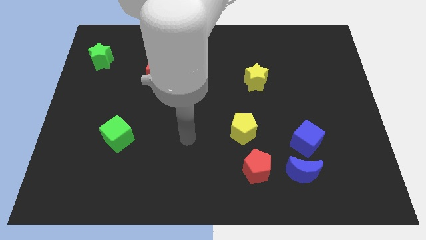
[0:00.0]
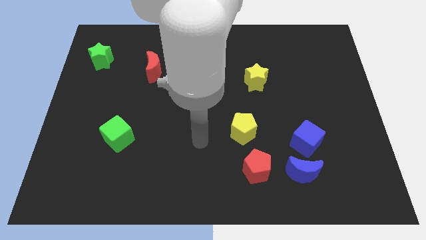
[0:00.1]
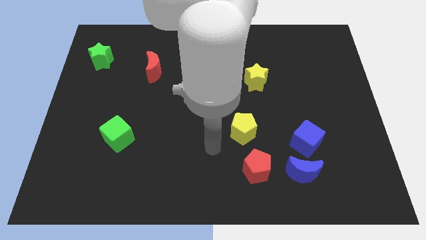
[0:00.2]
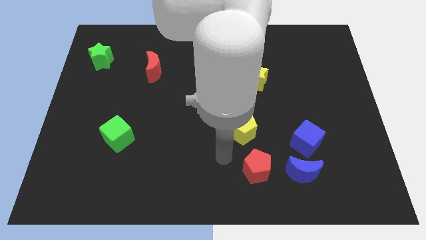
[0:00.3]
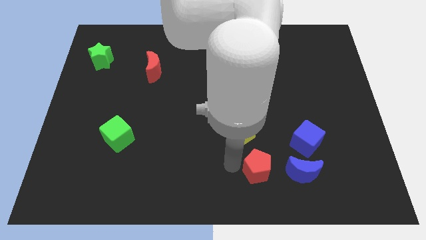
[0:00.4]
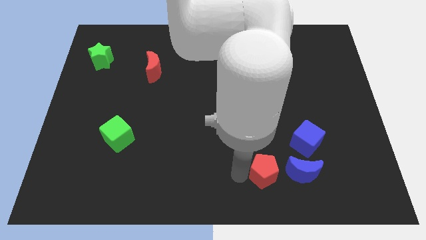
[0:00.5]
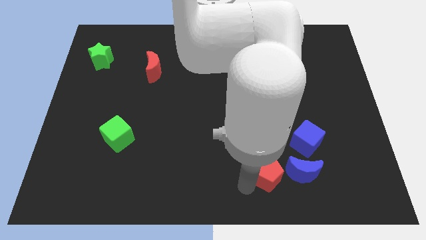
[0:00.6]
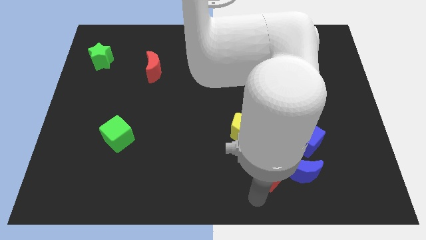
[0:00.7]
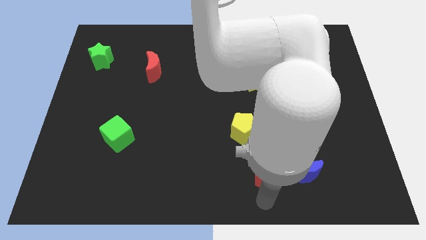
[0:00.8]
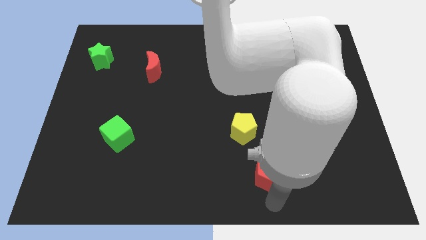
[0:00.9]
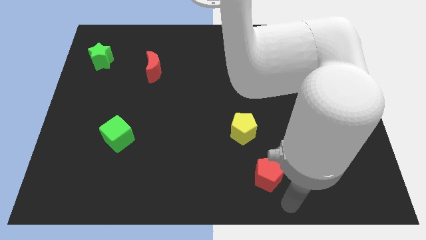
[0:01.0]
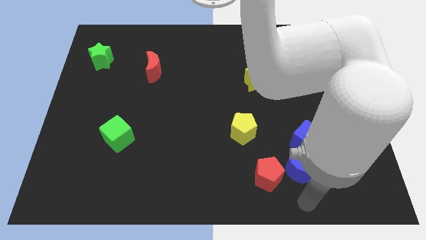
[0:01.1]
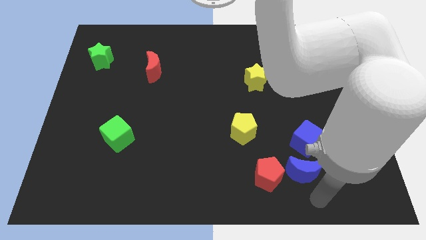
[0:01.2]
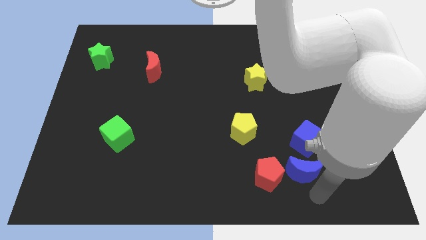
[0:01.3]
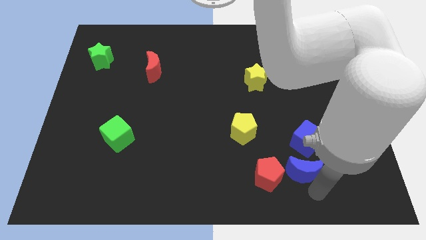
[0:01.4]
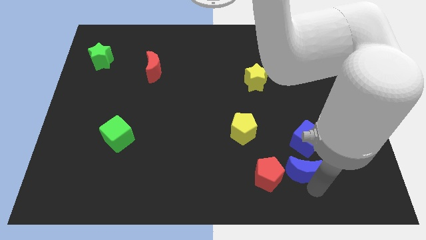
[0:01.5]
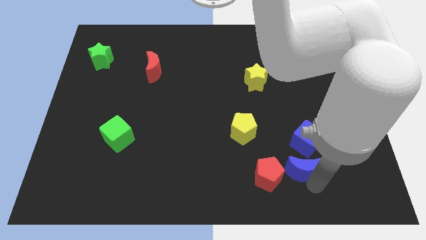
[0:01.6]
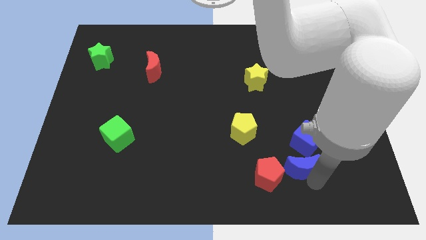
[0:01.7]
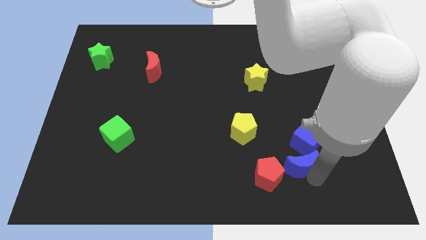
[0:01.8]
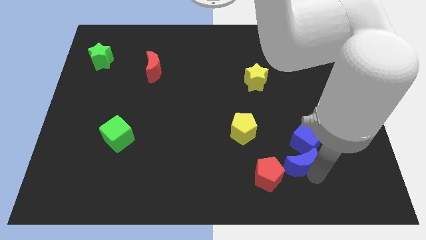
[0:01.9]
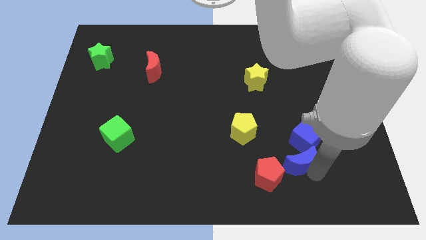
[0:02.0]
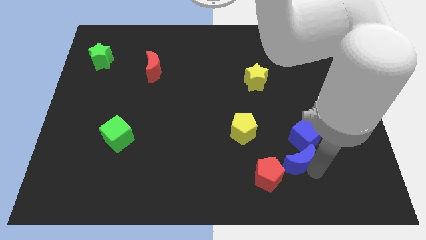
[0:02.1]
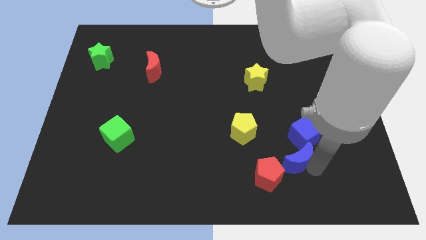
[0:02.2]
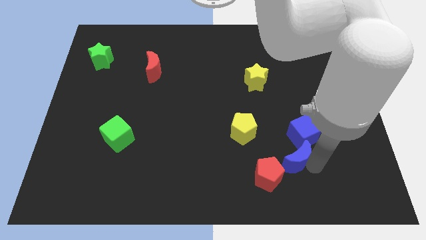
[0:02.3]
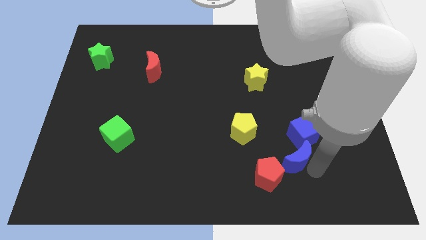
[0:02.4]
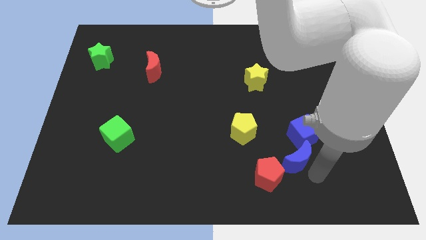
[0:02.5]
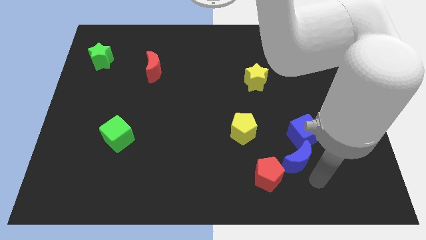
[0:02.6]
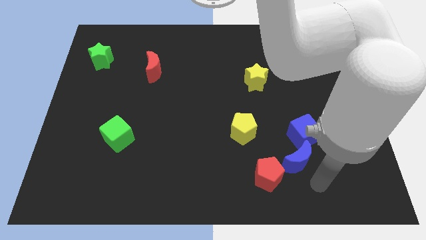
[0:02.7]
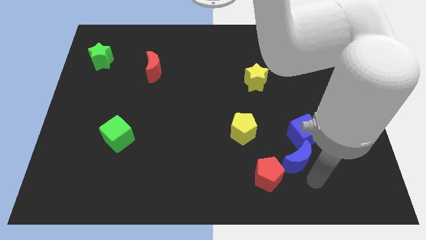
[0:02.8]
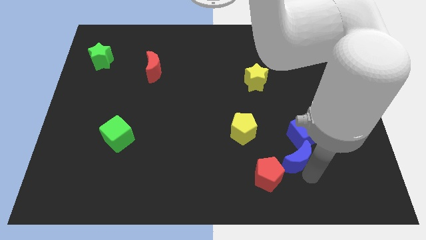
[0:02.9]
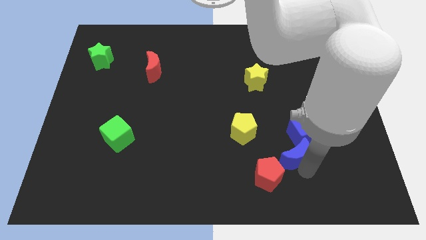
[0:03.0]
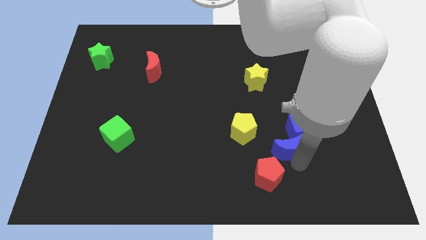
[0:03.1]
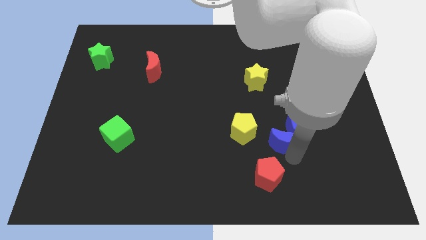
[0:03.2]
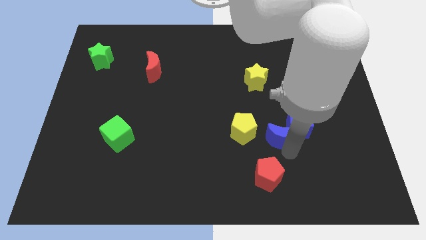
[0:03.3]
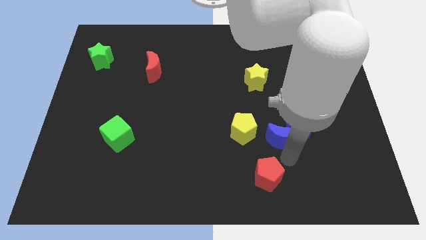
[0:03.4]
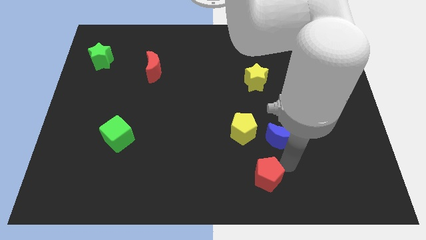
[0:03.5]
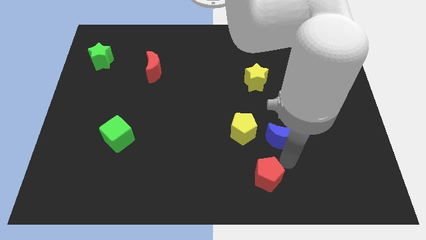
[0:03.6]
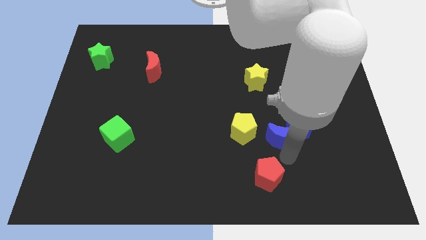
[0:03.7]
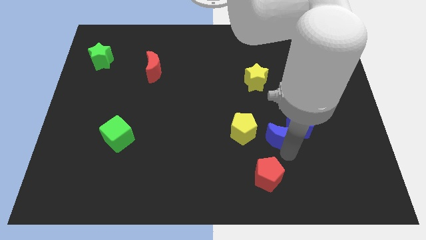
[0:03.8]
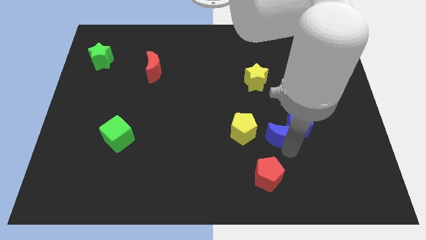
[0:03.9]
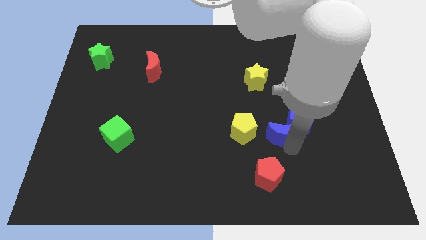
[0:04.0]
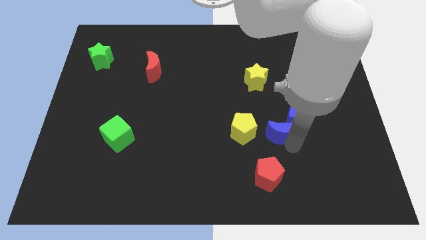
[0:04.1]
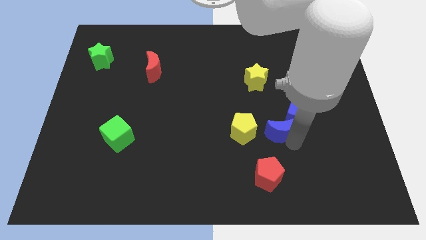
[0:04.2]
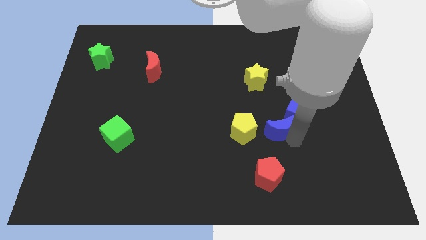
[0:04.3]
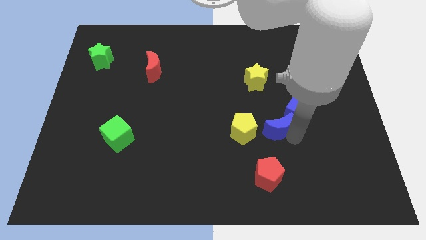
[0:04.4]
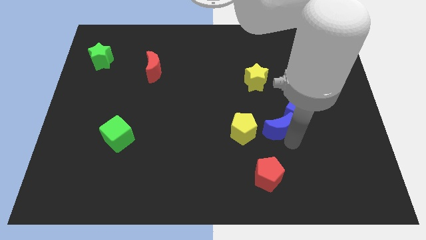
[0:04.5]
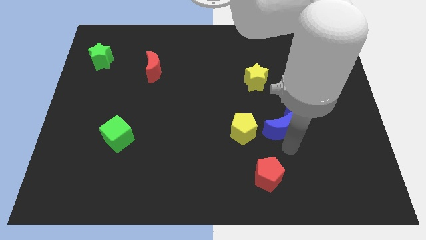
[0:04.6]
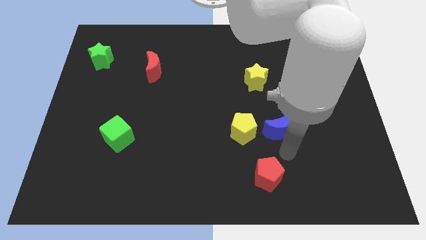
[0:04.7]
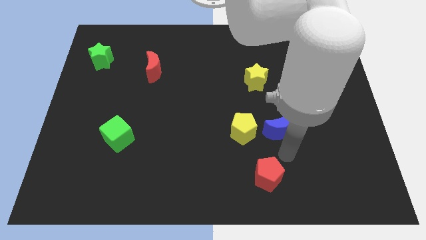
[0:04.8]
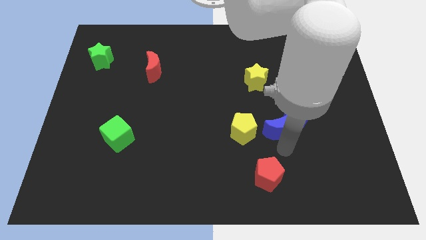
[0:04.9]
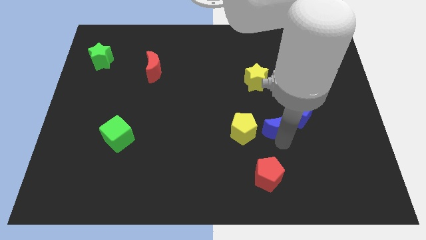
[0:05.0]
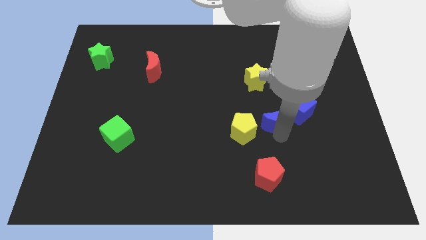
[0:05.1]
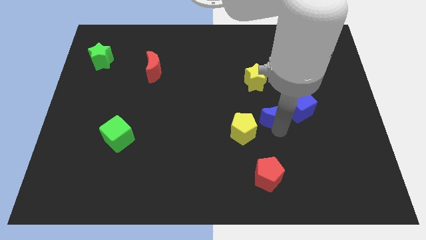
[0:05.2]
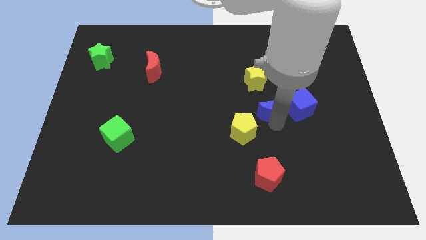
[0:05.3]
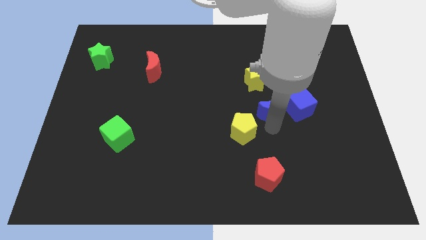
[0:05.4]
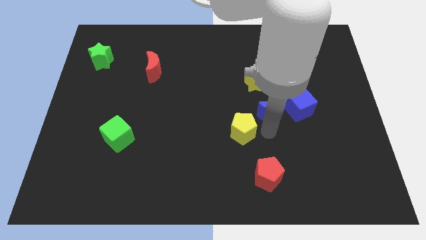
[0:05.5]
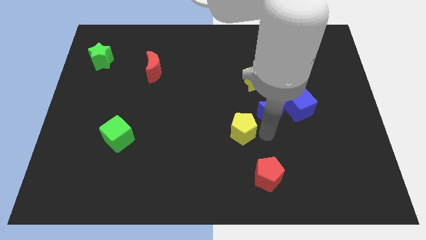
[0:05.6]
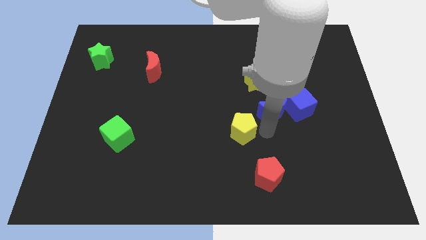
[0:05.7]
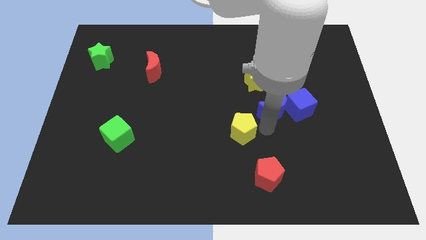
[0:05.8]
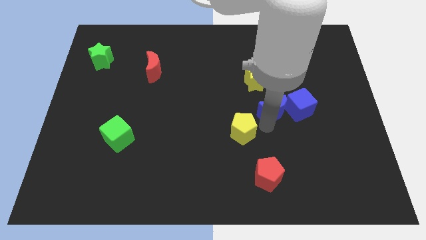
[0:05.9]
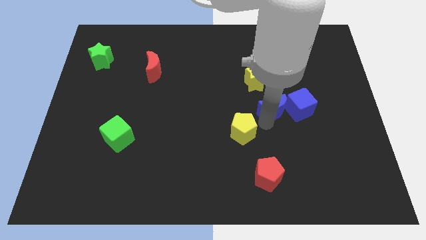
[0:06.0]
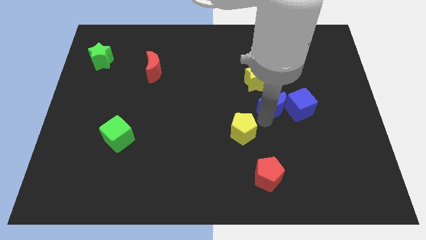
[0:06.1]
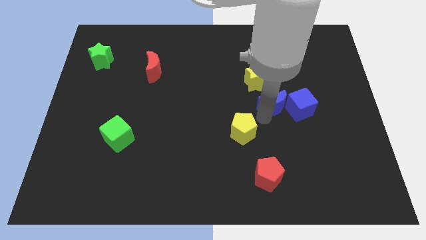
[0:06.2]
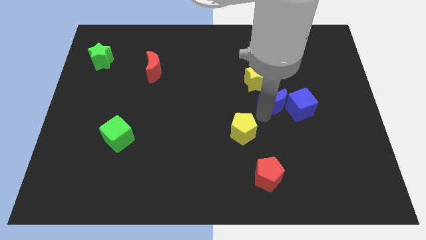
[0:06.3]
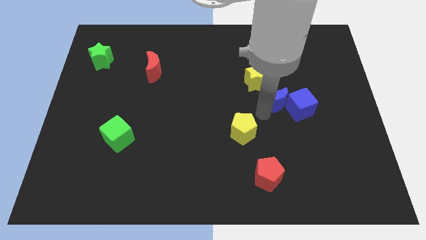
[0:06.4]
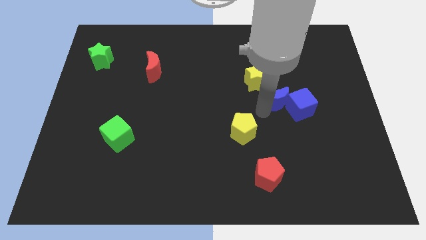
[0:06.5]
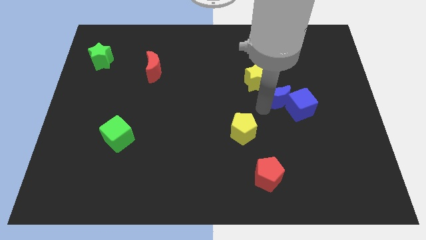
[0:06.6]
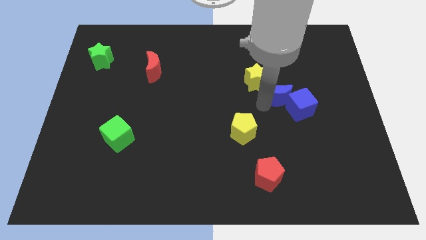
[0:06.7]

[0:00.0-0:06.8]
slide the blue moon up

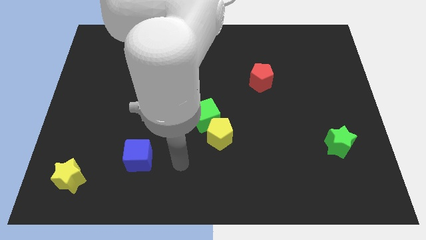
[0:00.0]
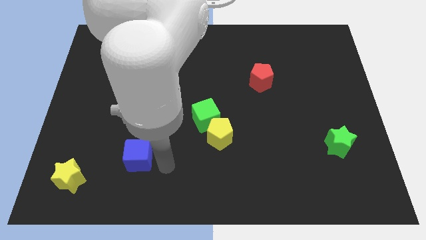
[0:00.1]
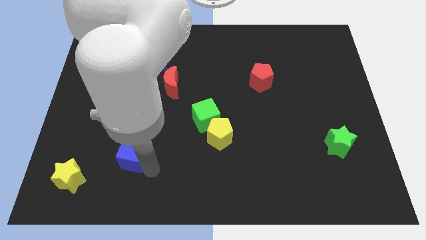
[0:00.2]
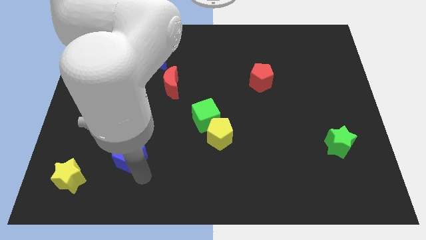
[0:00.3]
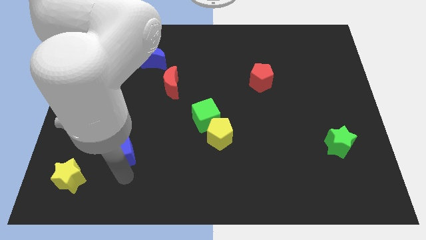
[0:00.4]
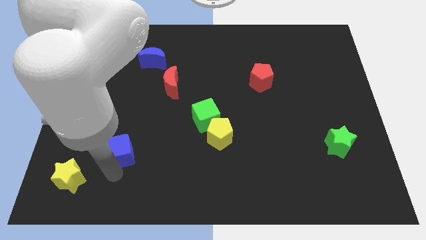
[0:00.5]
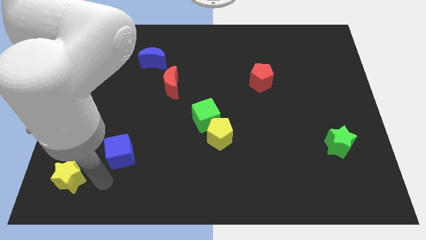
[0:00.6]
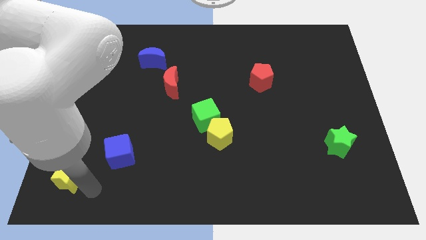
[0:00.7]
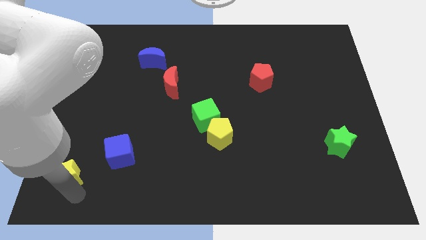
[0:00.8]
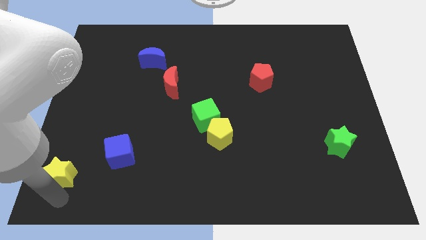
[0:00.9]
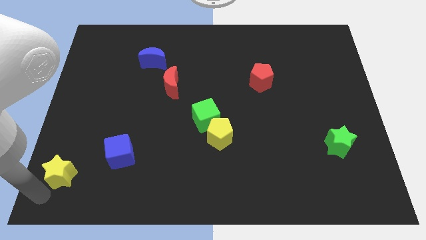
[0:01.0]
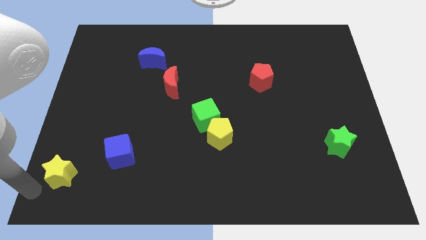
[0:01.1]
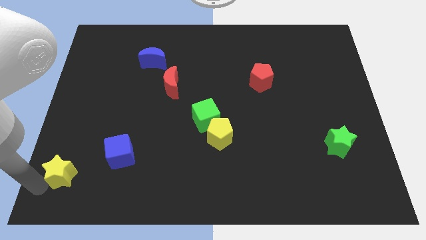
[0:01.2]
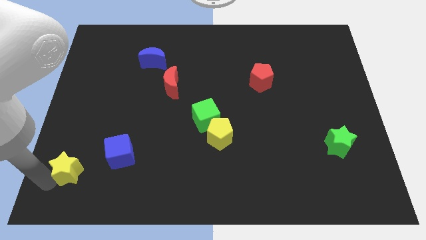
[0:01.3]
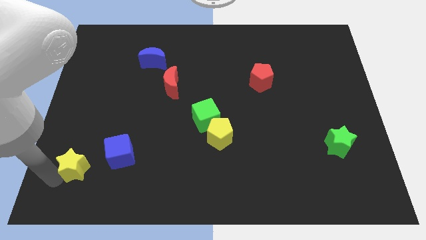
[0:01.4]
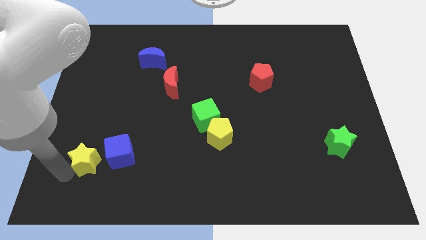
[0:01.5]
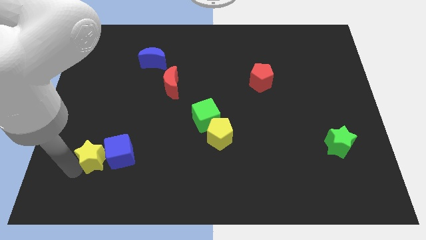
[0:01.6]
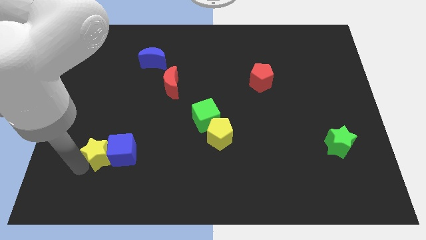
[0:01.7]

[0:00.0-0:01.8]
slightly move the yellow star upwards and then to the right
